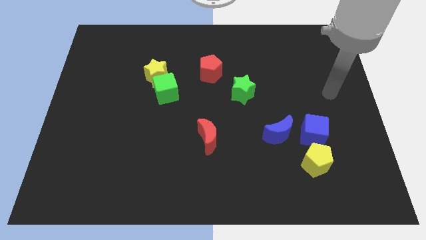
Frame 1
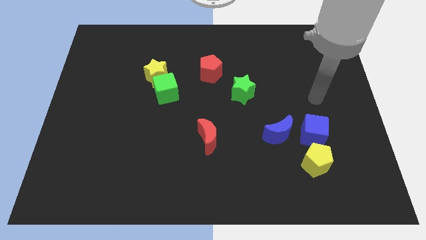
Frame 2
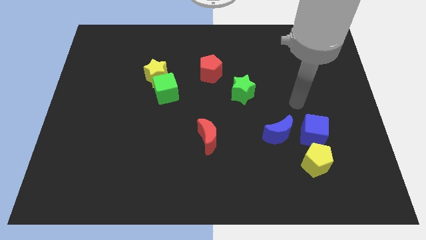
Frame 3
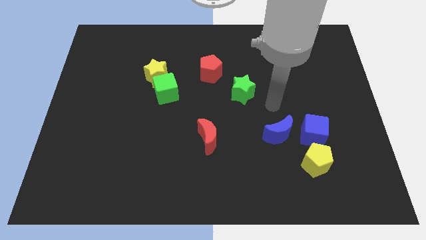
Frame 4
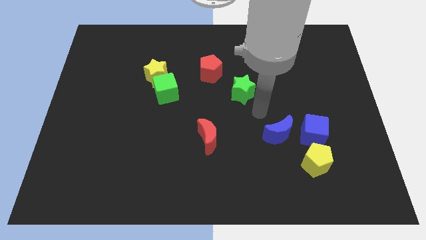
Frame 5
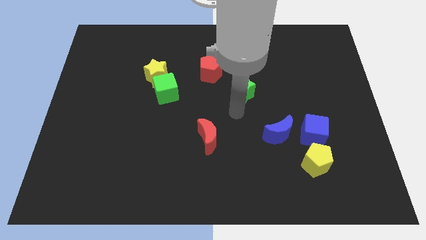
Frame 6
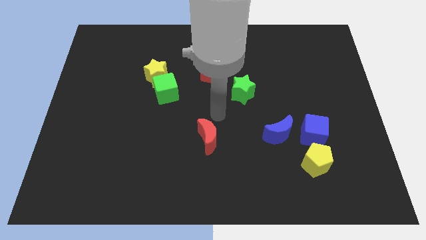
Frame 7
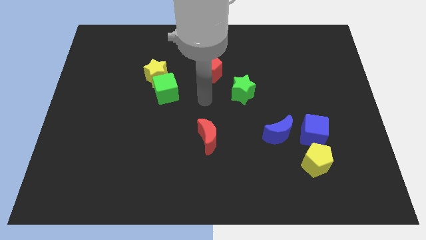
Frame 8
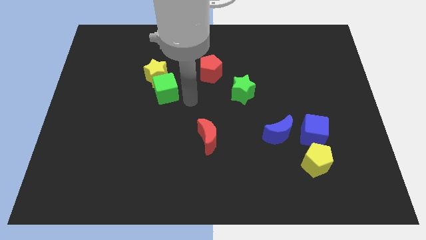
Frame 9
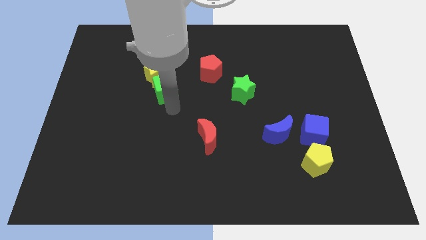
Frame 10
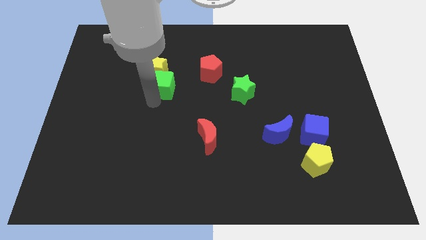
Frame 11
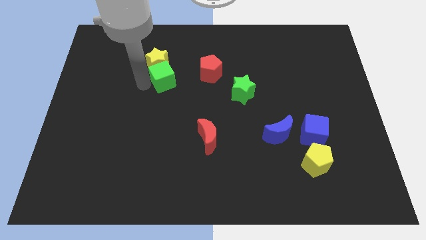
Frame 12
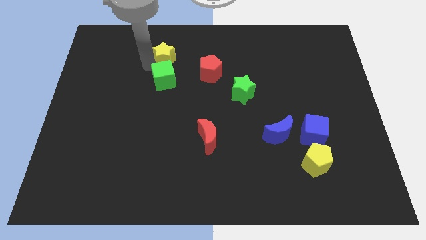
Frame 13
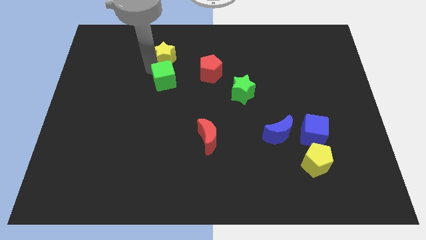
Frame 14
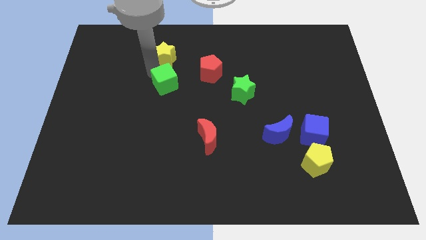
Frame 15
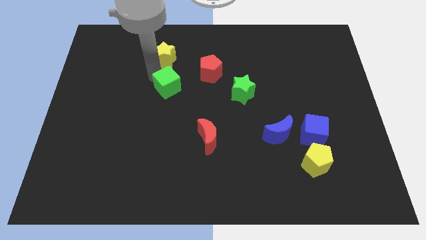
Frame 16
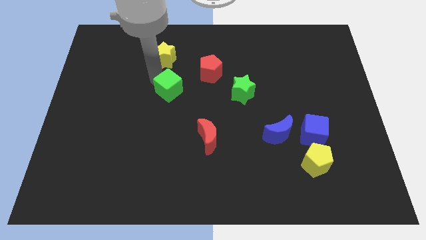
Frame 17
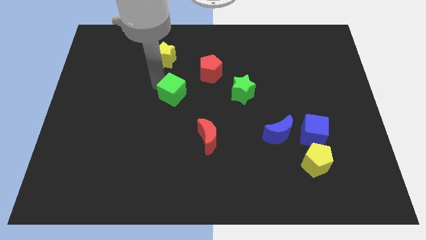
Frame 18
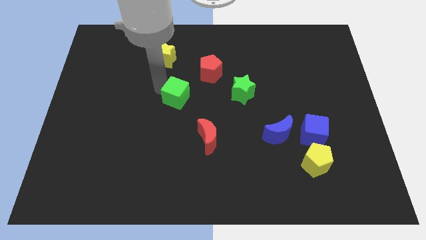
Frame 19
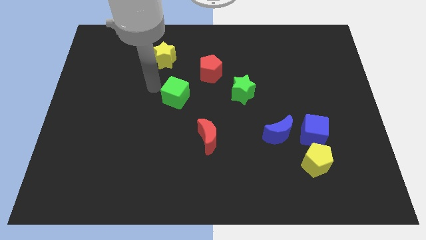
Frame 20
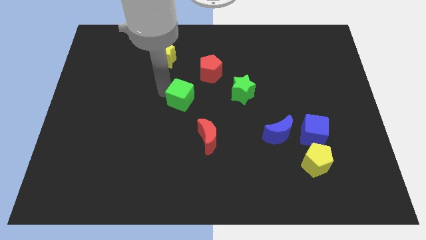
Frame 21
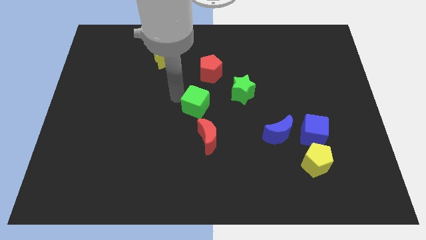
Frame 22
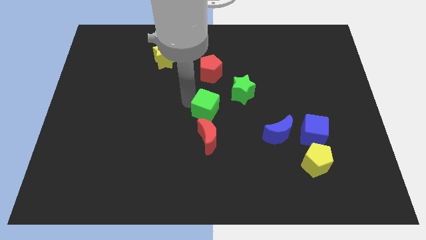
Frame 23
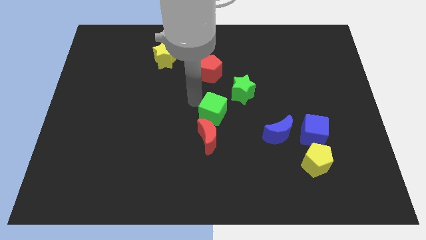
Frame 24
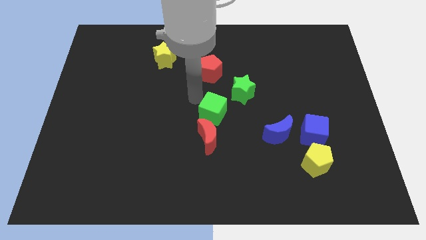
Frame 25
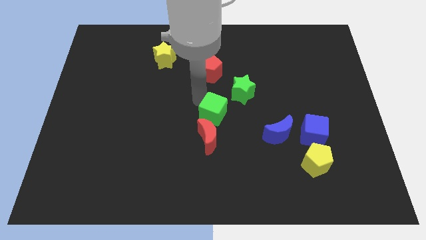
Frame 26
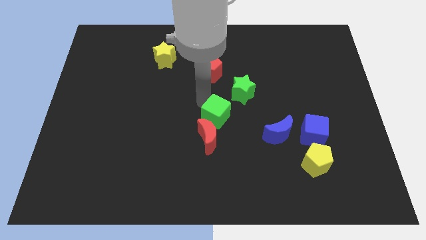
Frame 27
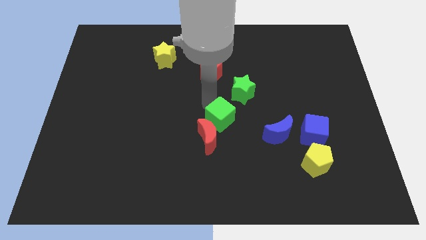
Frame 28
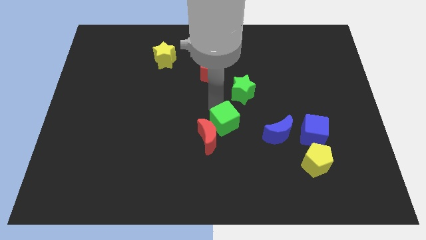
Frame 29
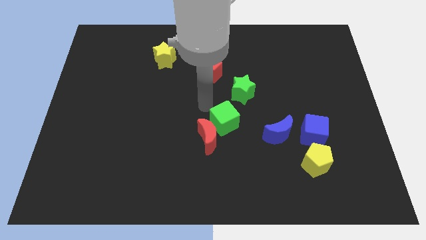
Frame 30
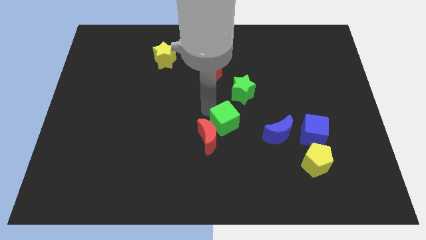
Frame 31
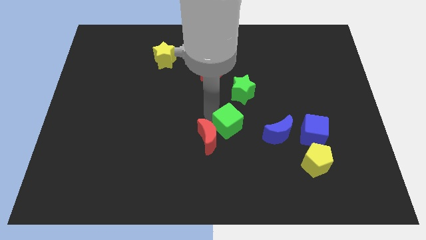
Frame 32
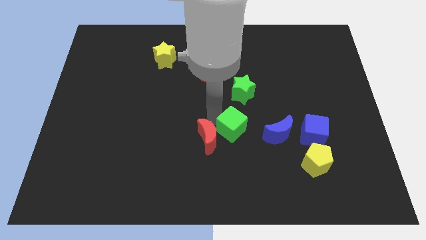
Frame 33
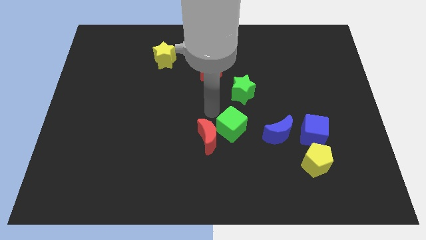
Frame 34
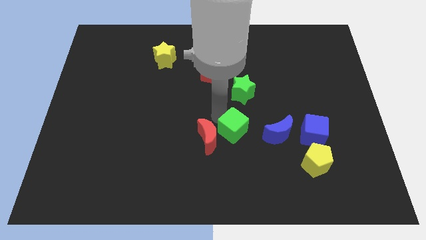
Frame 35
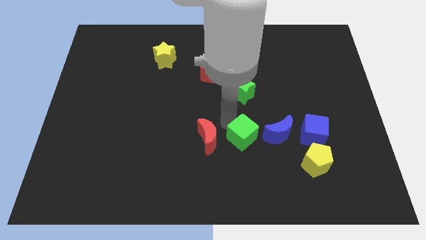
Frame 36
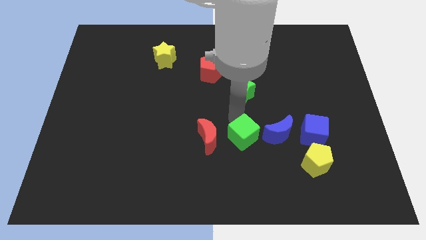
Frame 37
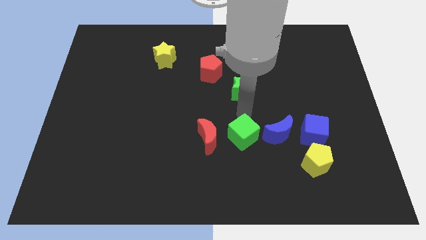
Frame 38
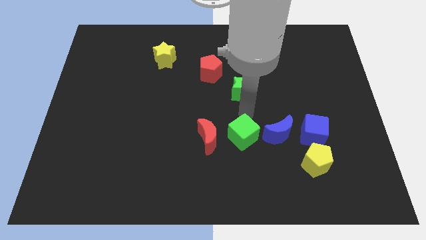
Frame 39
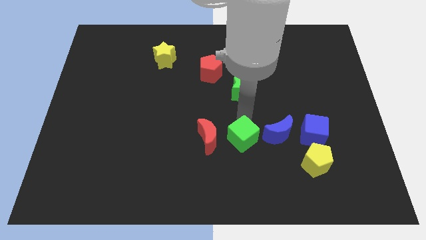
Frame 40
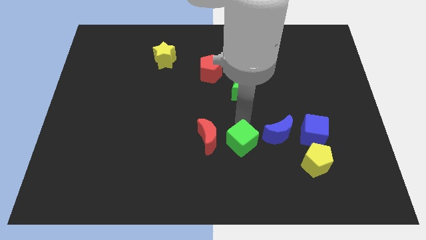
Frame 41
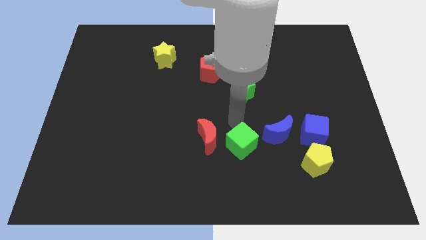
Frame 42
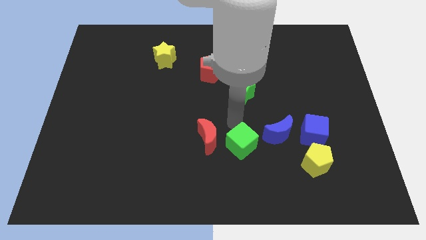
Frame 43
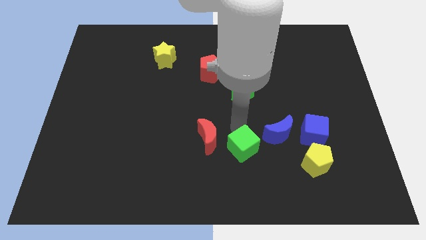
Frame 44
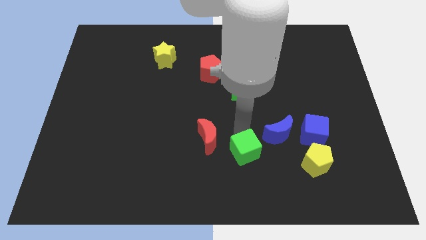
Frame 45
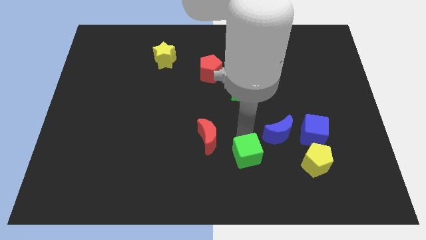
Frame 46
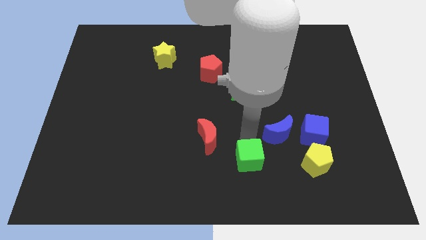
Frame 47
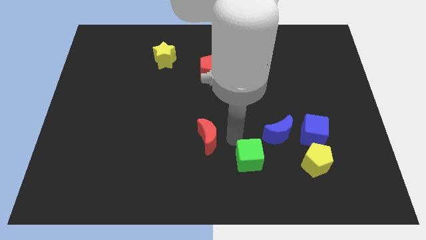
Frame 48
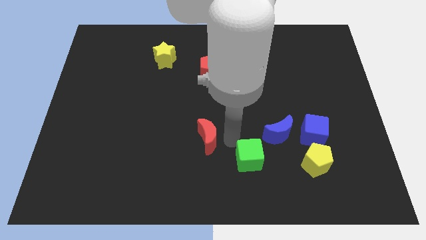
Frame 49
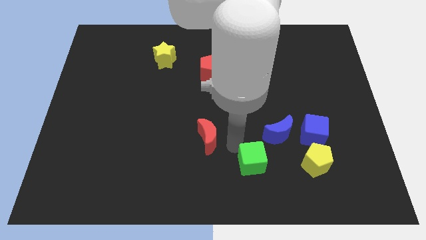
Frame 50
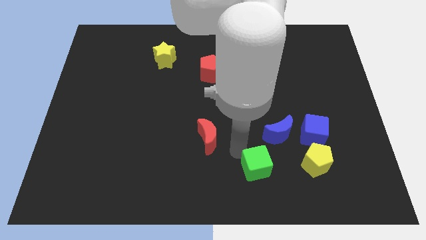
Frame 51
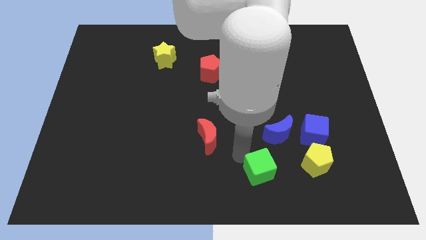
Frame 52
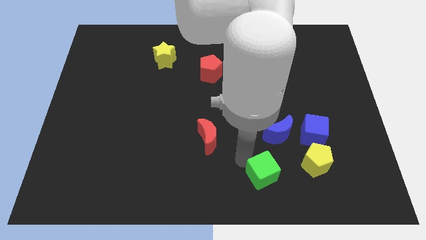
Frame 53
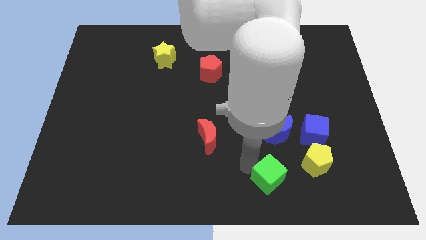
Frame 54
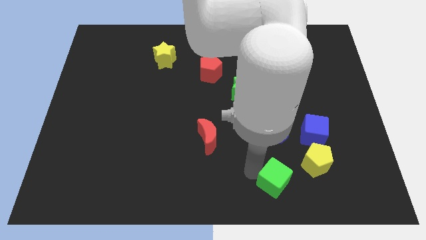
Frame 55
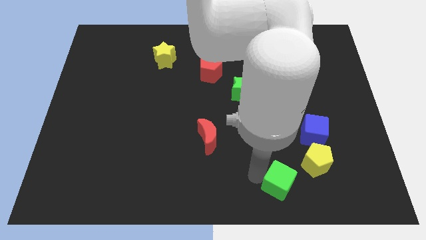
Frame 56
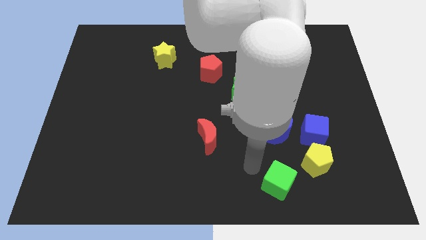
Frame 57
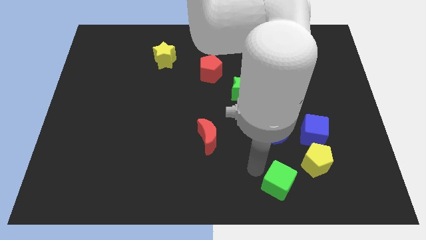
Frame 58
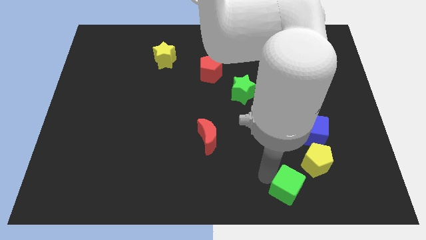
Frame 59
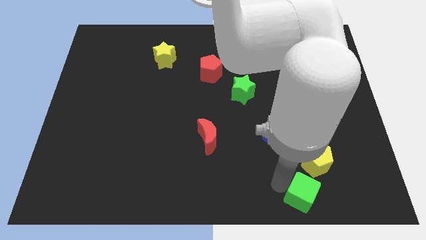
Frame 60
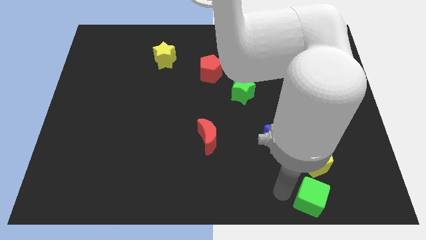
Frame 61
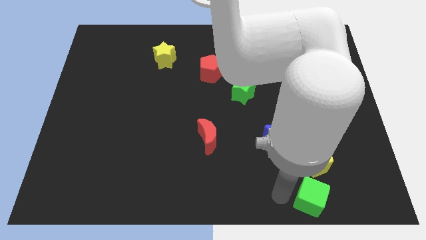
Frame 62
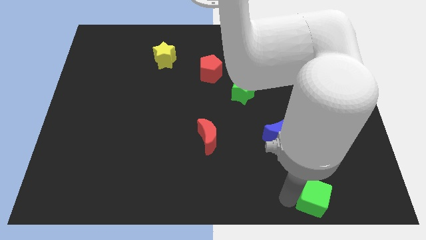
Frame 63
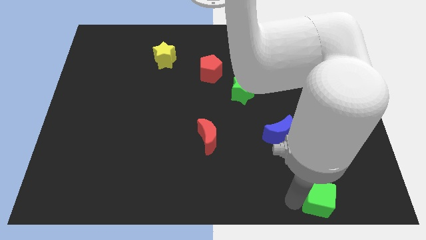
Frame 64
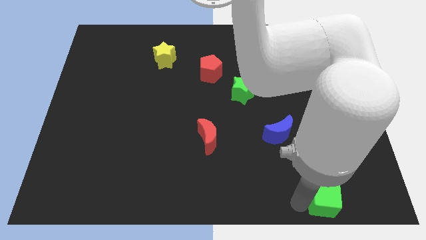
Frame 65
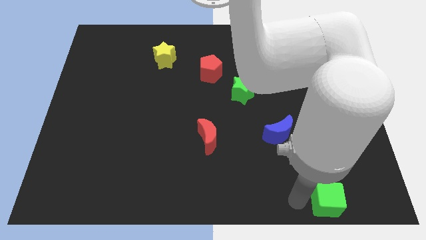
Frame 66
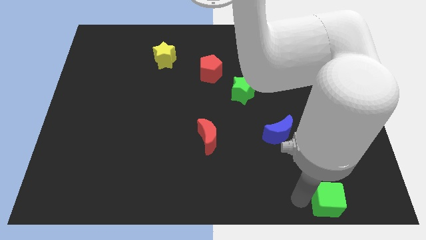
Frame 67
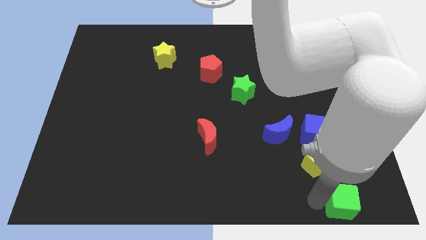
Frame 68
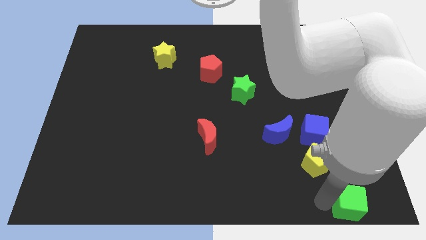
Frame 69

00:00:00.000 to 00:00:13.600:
put the green cube to the bottom right

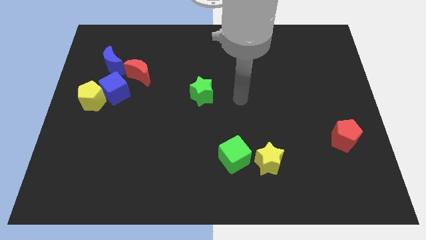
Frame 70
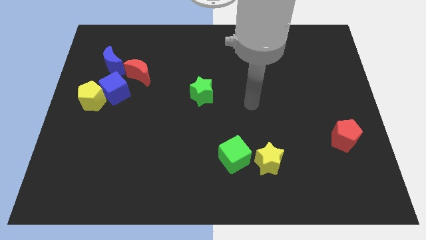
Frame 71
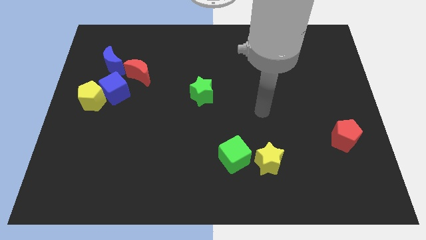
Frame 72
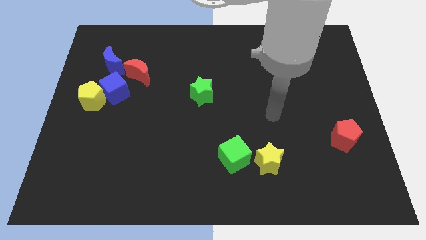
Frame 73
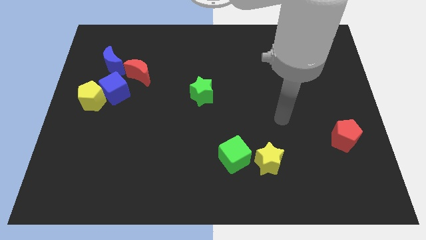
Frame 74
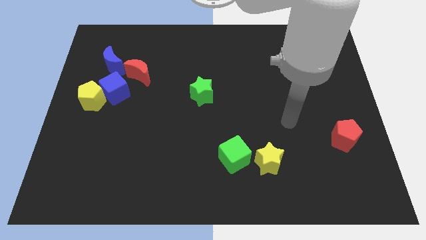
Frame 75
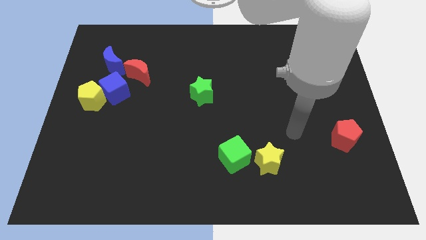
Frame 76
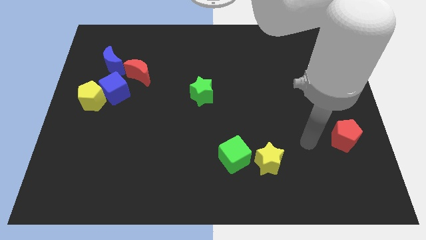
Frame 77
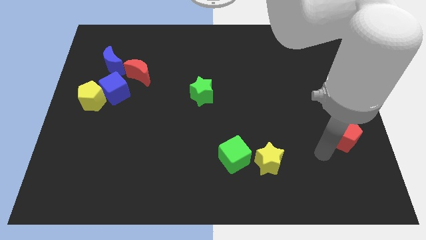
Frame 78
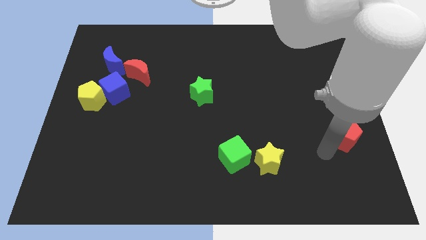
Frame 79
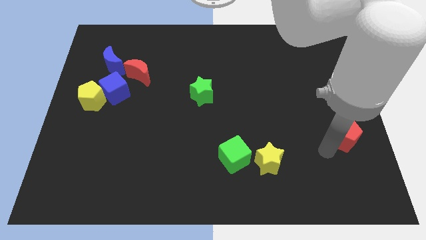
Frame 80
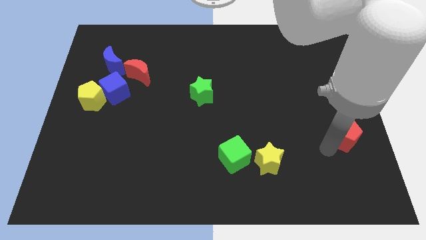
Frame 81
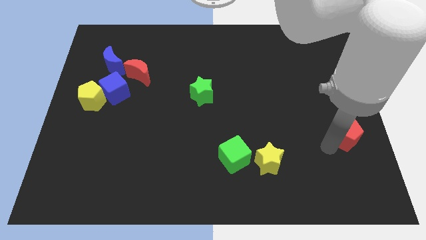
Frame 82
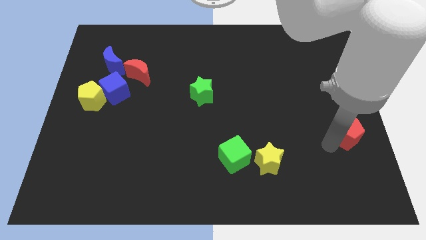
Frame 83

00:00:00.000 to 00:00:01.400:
move the red pentagon to the right side of the board
